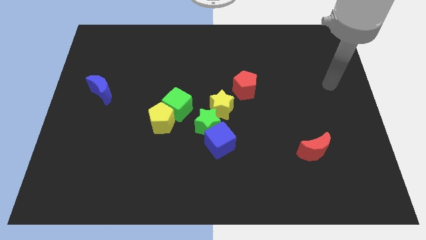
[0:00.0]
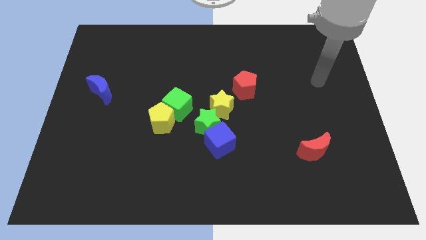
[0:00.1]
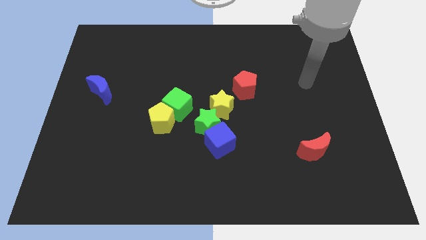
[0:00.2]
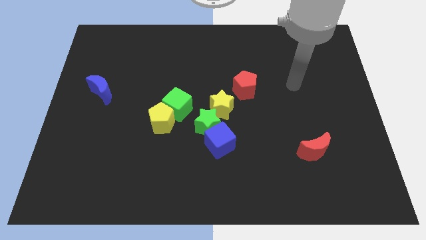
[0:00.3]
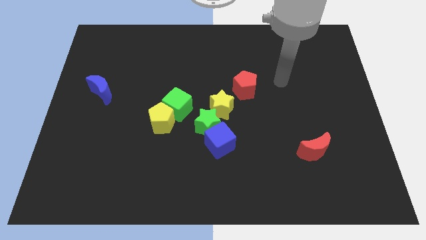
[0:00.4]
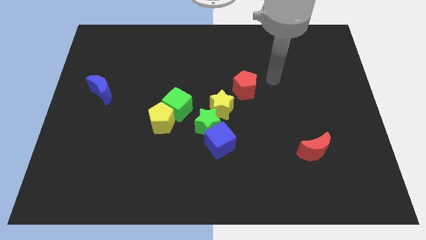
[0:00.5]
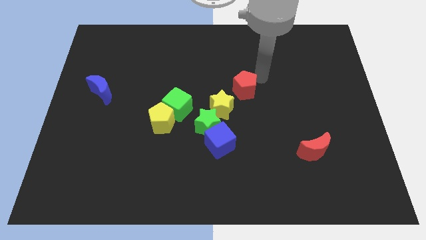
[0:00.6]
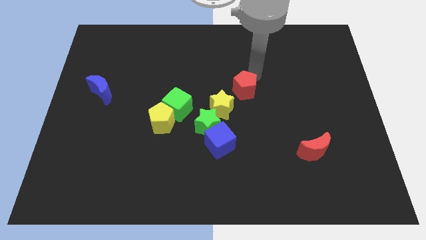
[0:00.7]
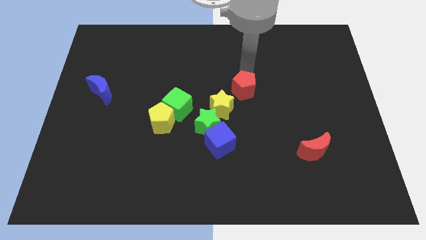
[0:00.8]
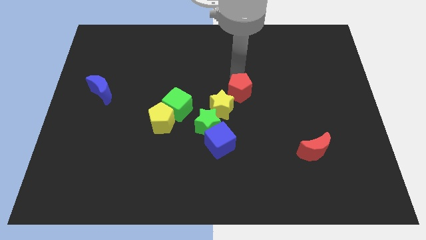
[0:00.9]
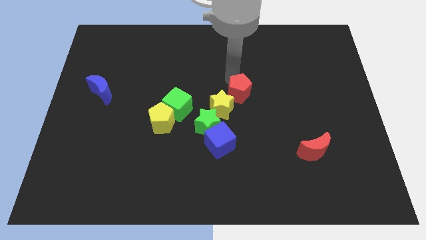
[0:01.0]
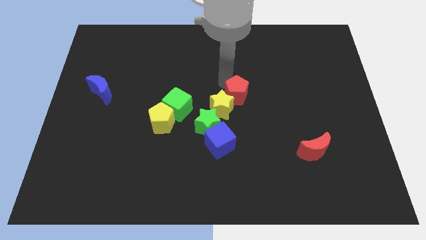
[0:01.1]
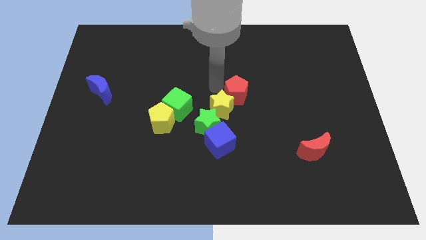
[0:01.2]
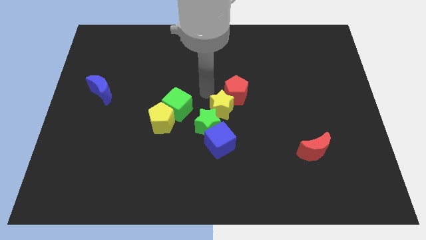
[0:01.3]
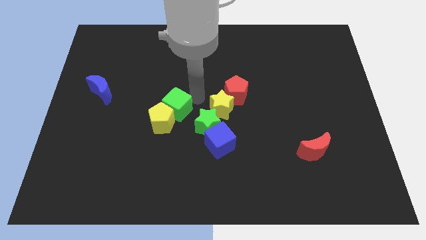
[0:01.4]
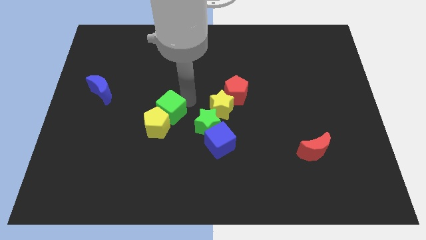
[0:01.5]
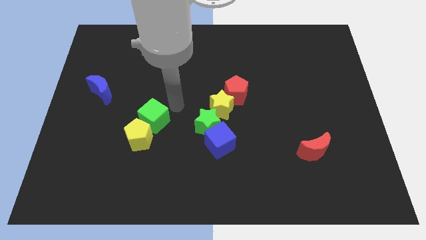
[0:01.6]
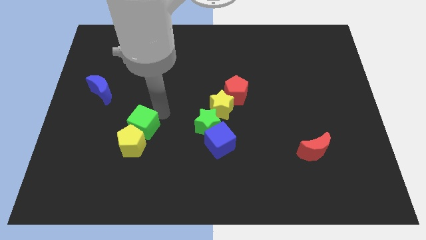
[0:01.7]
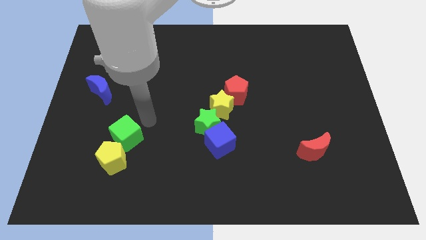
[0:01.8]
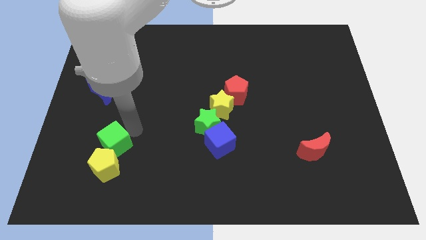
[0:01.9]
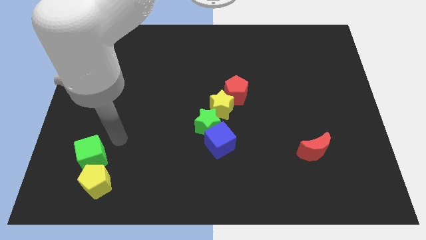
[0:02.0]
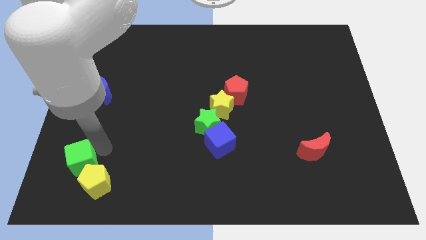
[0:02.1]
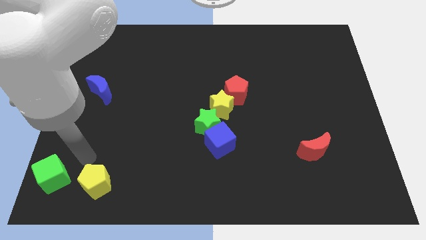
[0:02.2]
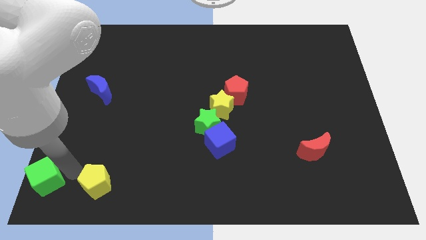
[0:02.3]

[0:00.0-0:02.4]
separate the yellow pentagon from the green cube

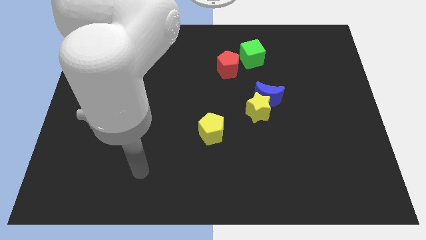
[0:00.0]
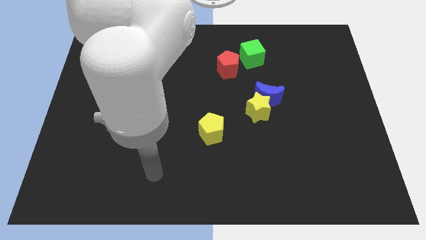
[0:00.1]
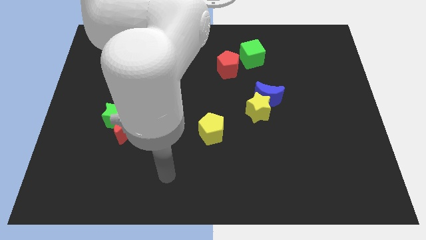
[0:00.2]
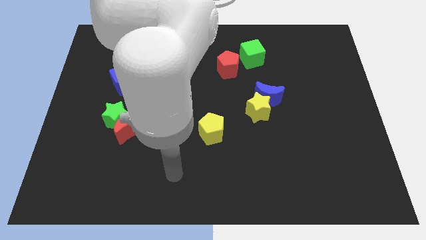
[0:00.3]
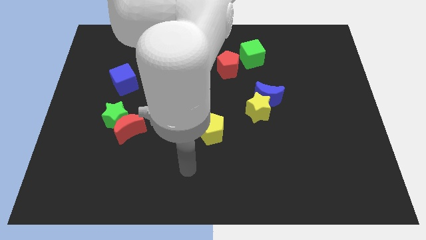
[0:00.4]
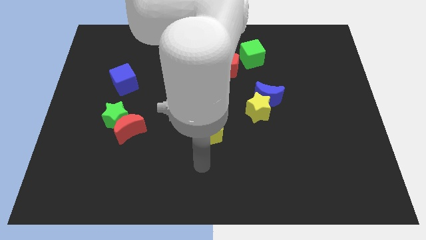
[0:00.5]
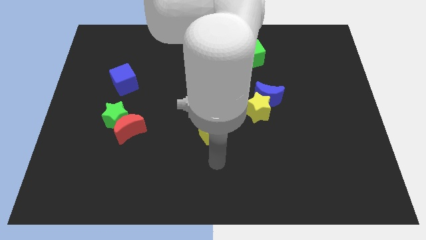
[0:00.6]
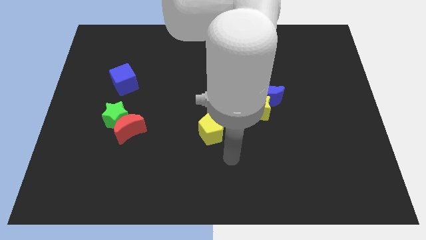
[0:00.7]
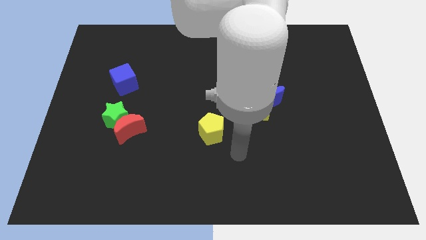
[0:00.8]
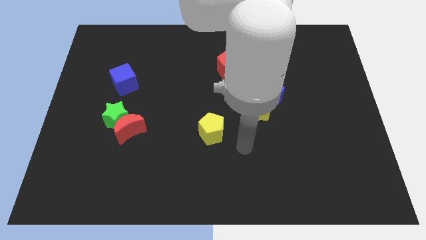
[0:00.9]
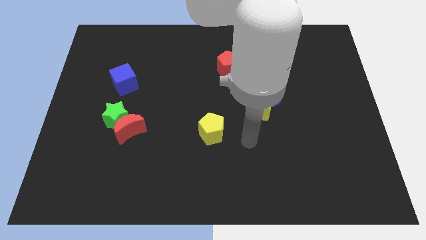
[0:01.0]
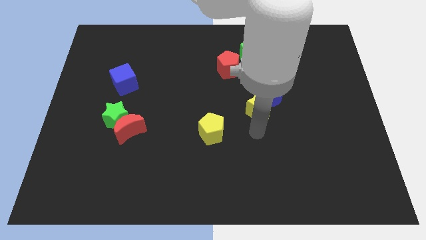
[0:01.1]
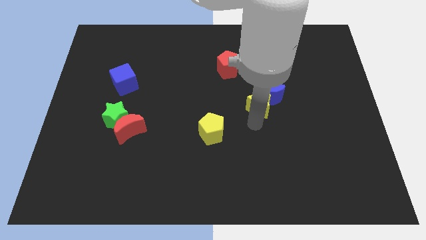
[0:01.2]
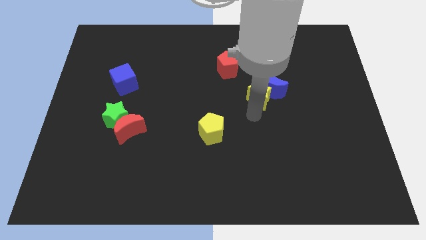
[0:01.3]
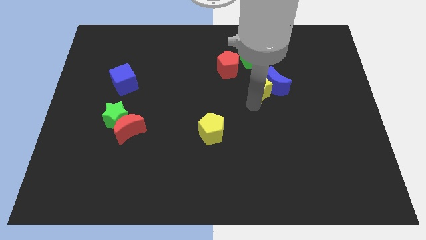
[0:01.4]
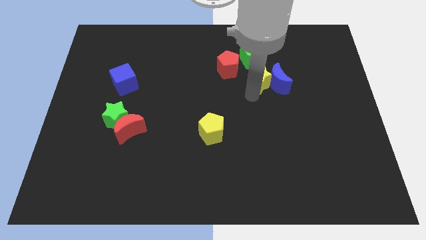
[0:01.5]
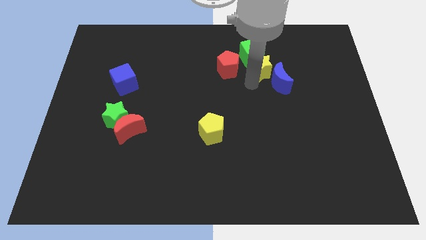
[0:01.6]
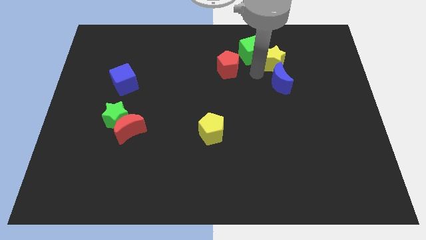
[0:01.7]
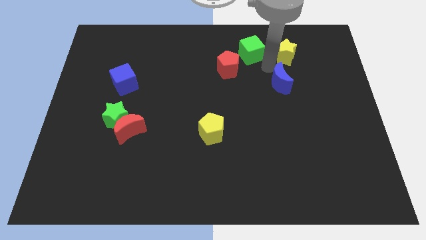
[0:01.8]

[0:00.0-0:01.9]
separate the blue moon from the yellow star

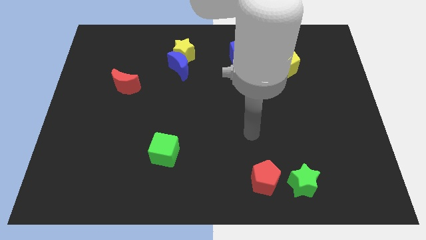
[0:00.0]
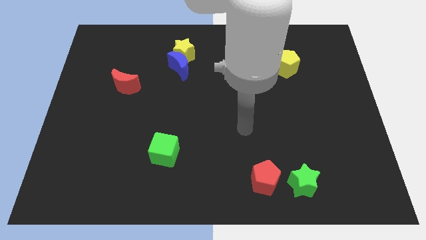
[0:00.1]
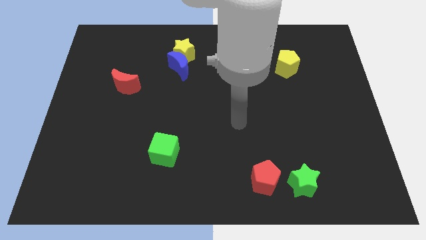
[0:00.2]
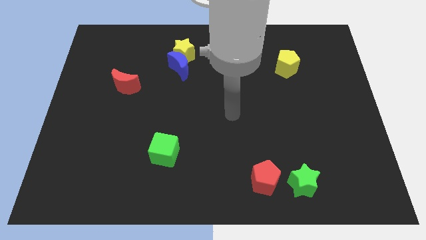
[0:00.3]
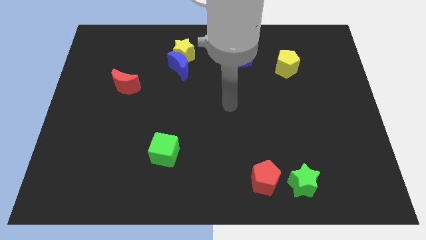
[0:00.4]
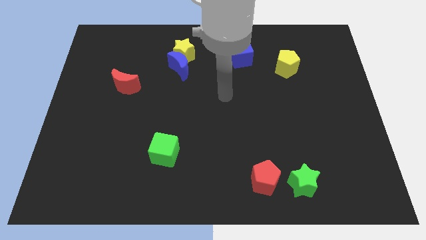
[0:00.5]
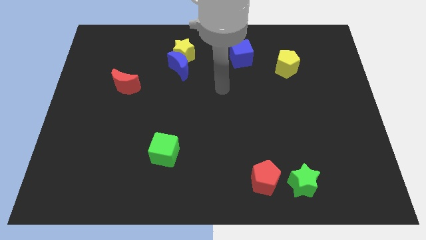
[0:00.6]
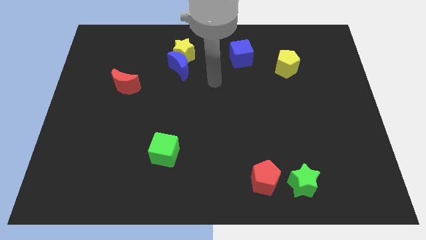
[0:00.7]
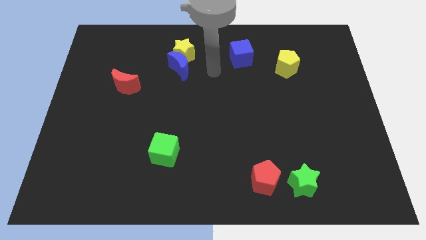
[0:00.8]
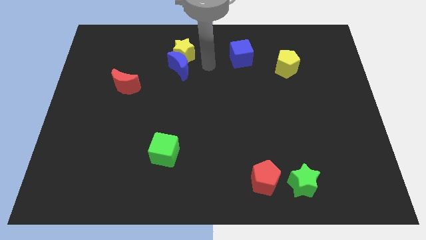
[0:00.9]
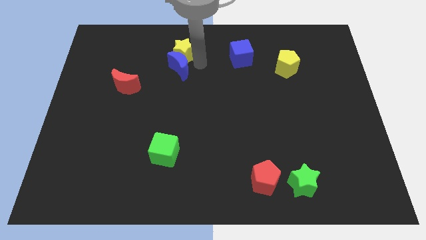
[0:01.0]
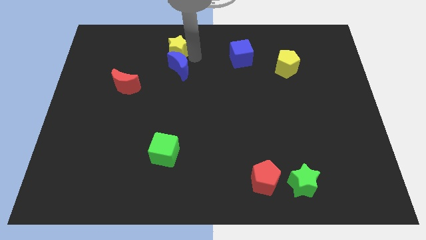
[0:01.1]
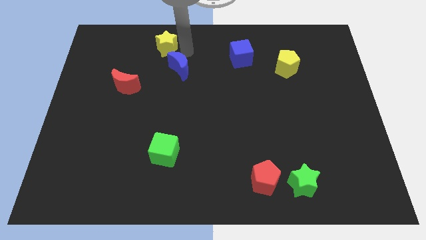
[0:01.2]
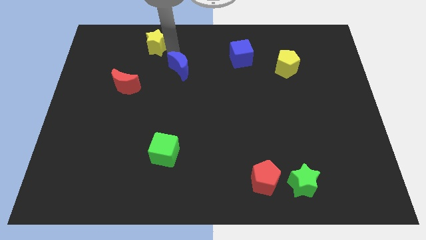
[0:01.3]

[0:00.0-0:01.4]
move the blue moon away from the yellow star

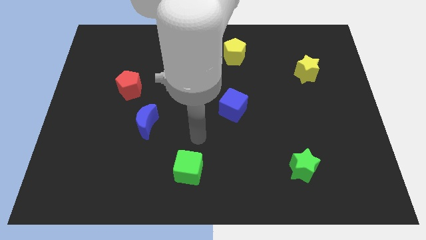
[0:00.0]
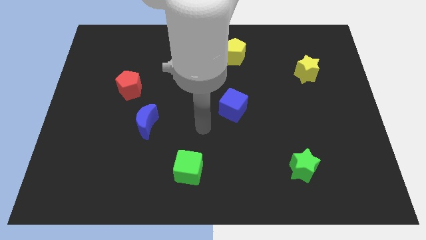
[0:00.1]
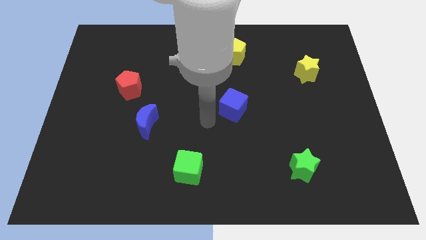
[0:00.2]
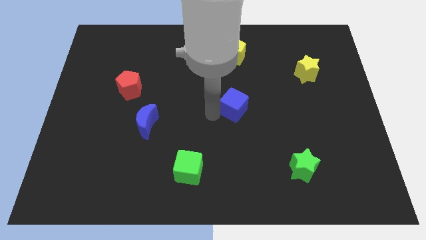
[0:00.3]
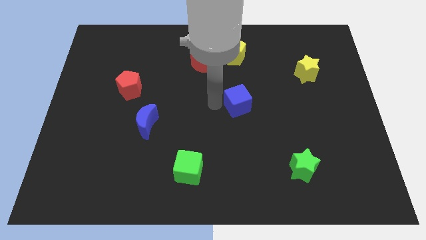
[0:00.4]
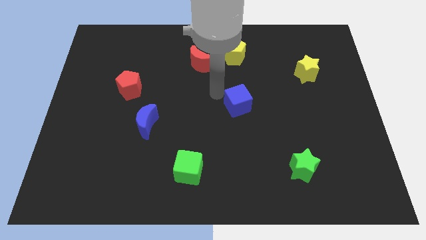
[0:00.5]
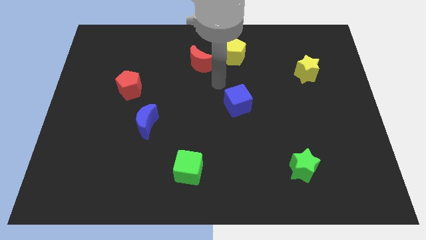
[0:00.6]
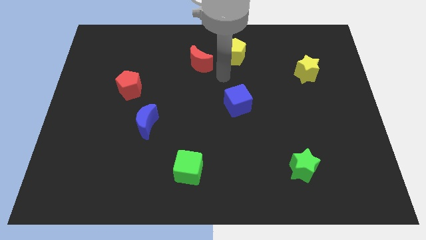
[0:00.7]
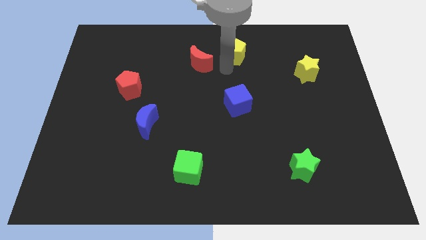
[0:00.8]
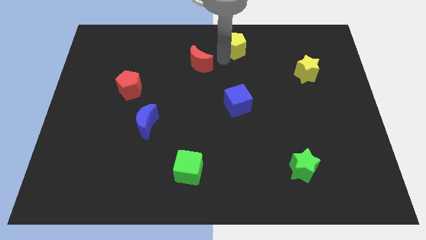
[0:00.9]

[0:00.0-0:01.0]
move the red moon away from the yellow pentagon

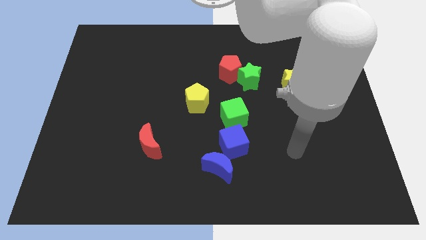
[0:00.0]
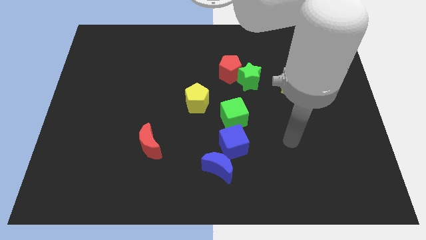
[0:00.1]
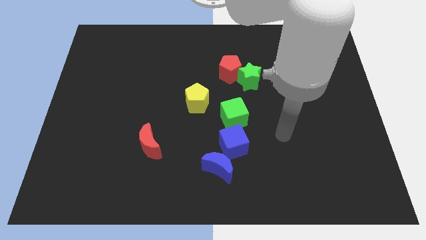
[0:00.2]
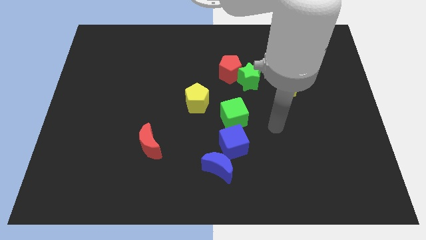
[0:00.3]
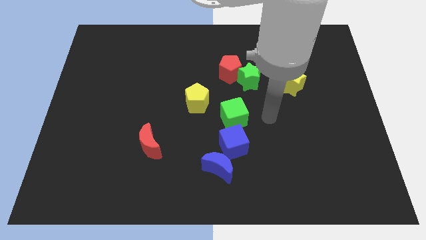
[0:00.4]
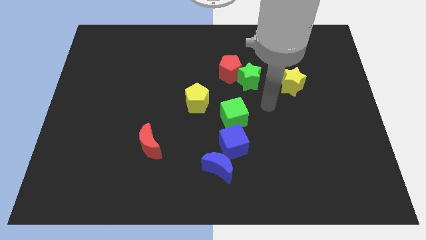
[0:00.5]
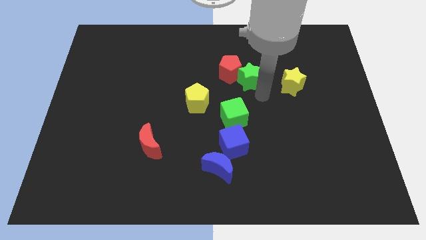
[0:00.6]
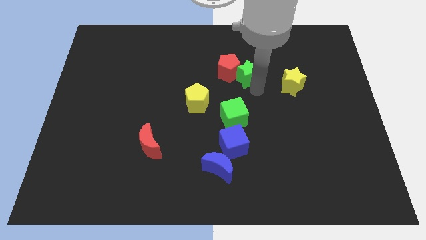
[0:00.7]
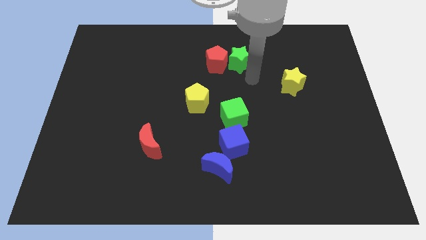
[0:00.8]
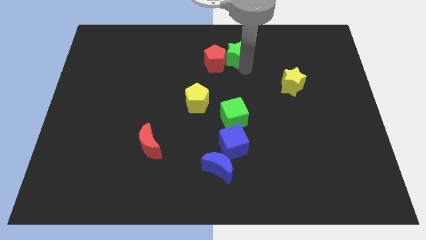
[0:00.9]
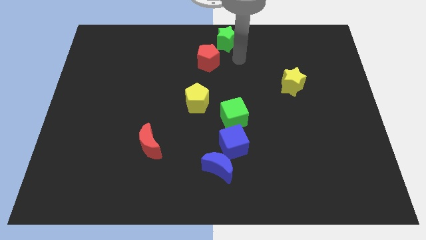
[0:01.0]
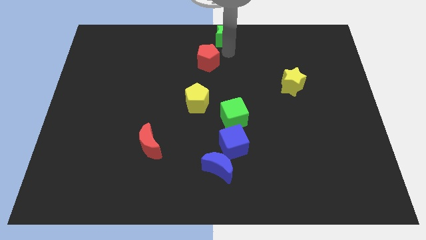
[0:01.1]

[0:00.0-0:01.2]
separate the red pentagon from the green star

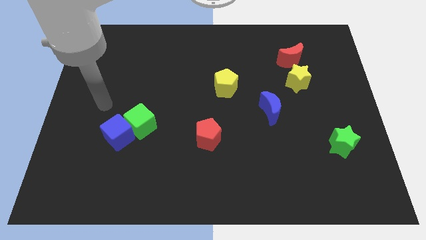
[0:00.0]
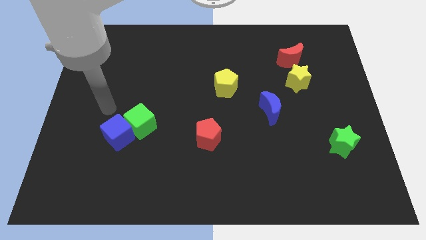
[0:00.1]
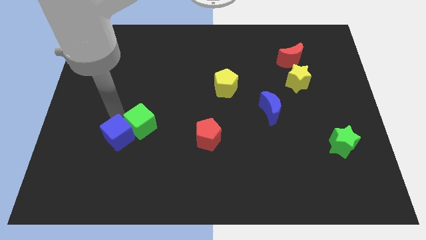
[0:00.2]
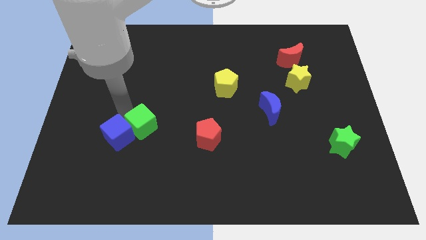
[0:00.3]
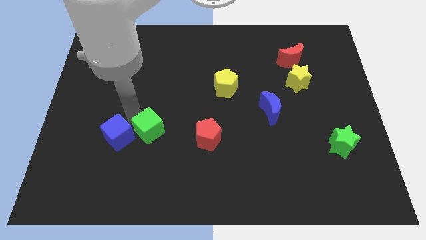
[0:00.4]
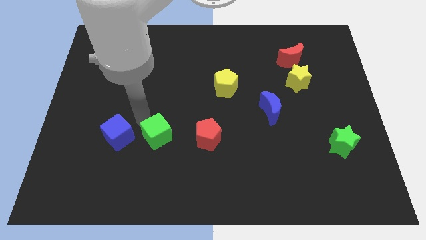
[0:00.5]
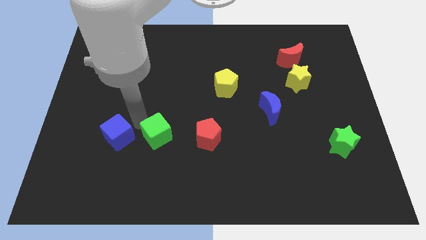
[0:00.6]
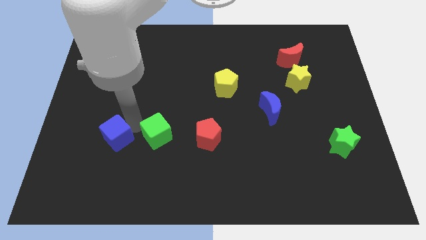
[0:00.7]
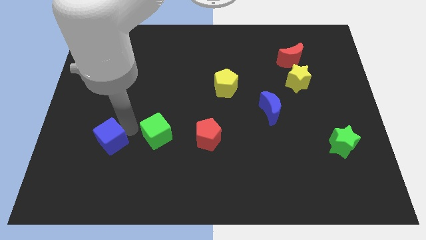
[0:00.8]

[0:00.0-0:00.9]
separate the blue cube from the green cube

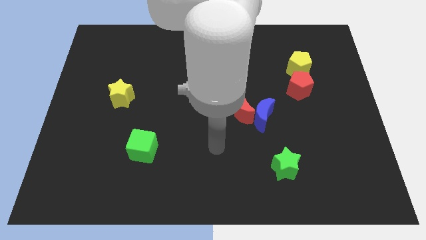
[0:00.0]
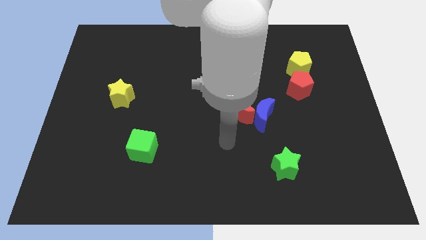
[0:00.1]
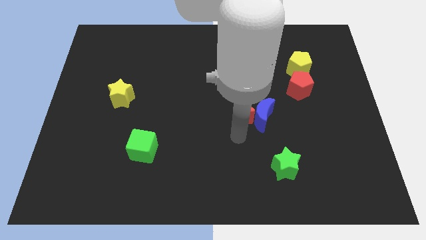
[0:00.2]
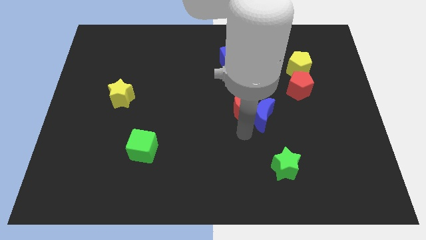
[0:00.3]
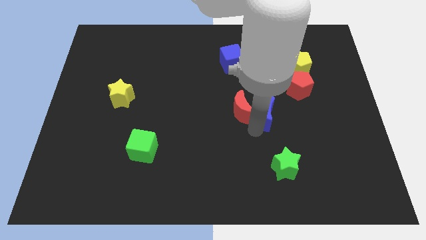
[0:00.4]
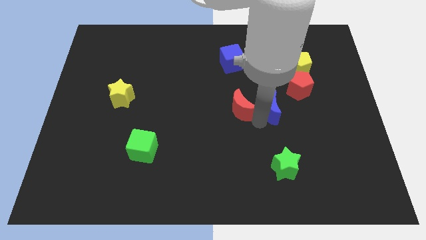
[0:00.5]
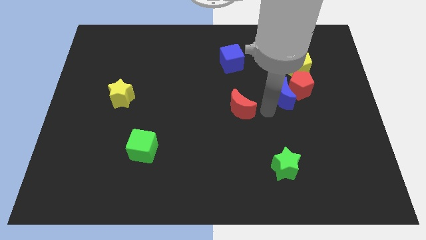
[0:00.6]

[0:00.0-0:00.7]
move the red moon away from the blue moon
